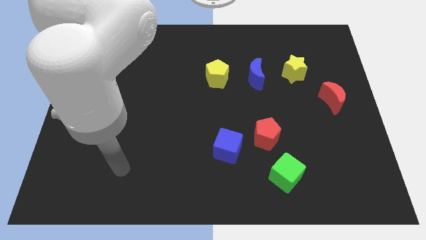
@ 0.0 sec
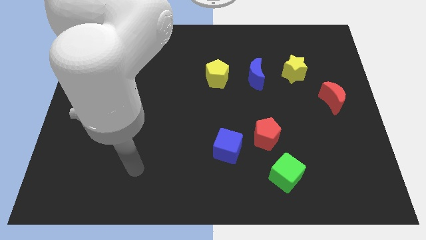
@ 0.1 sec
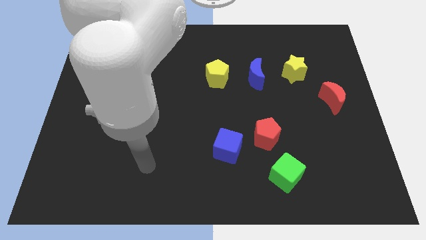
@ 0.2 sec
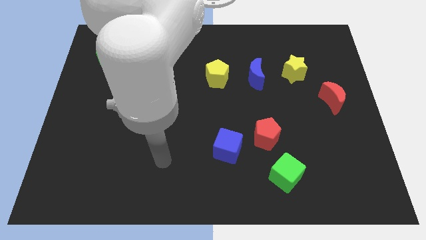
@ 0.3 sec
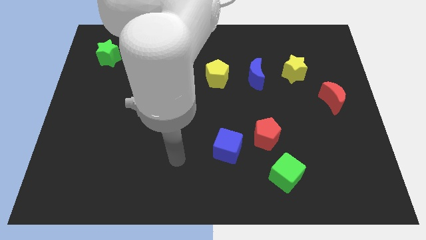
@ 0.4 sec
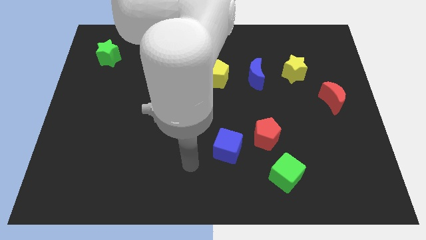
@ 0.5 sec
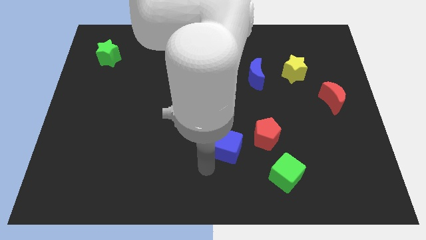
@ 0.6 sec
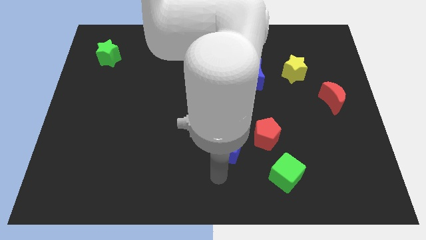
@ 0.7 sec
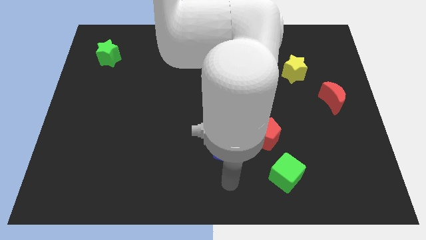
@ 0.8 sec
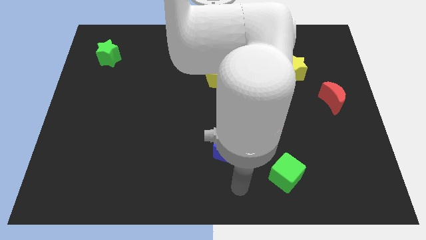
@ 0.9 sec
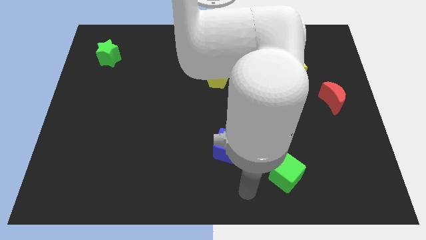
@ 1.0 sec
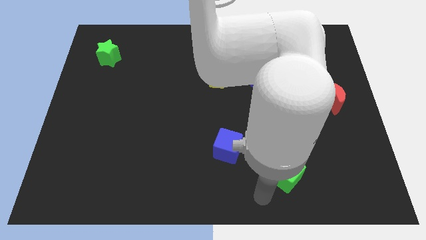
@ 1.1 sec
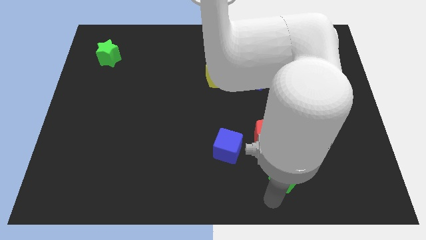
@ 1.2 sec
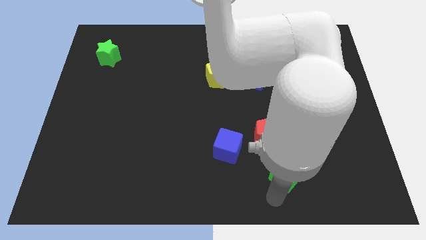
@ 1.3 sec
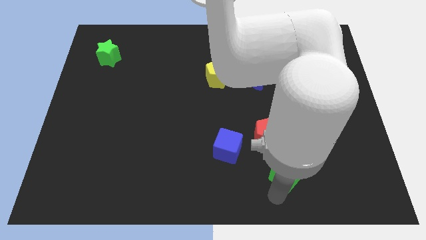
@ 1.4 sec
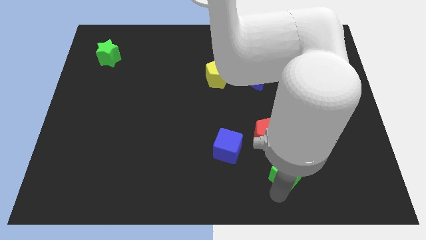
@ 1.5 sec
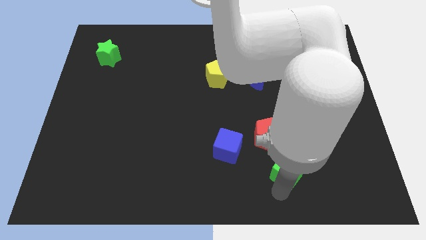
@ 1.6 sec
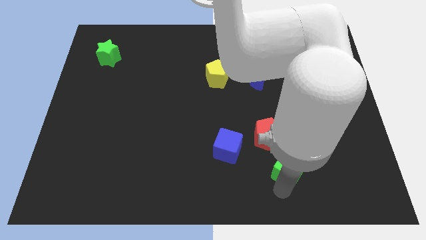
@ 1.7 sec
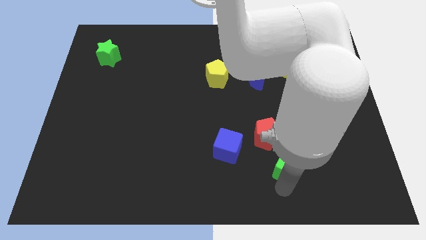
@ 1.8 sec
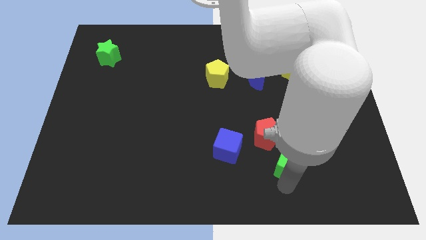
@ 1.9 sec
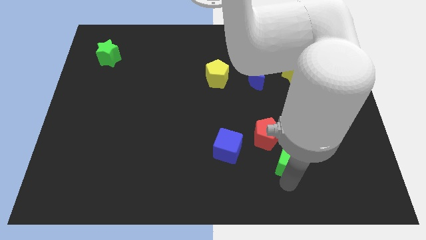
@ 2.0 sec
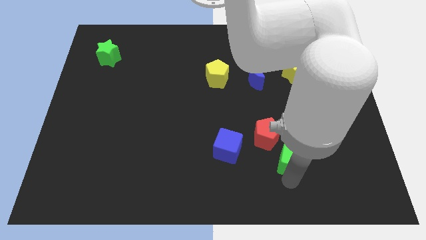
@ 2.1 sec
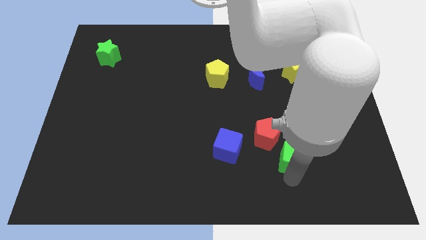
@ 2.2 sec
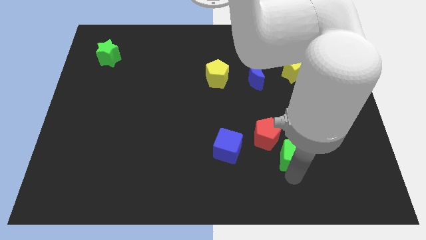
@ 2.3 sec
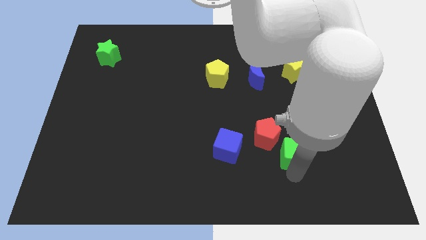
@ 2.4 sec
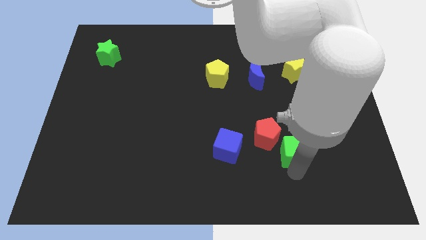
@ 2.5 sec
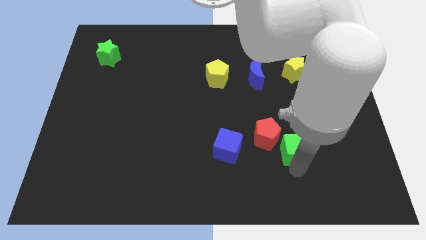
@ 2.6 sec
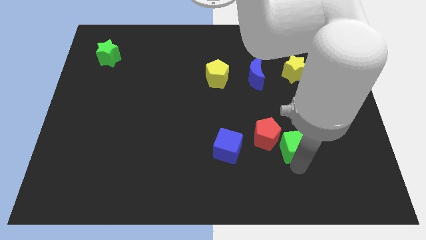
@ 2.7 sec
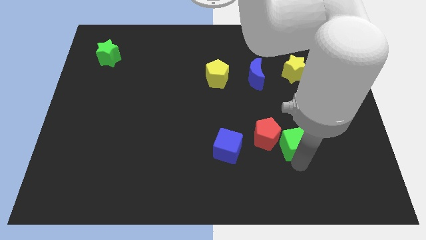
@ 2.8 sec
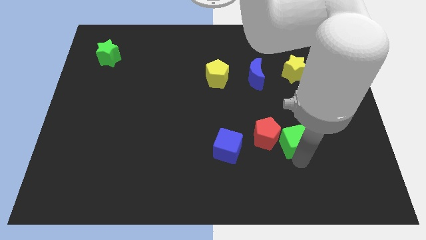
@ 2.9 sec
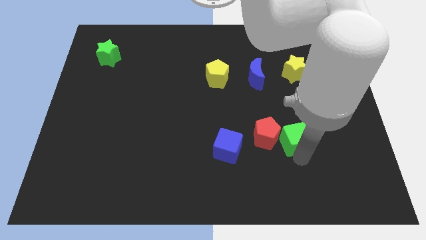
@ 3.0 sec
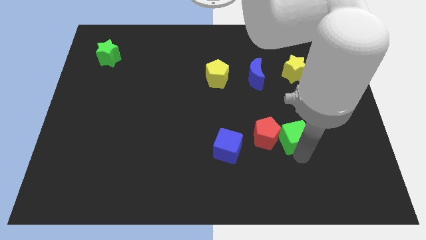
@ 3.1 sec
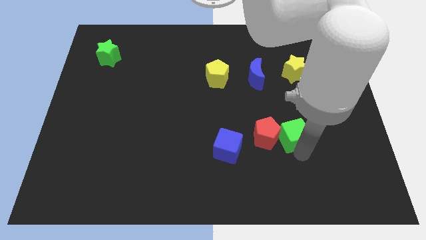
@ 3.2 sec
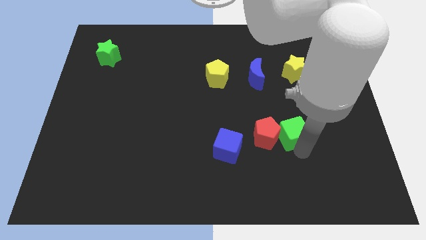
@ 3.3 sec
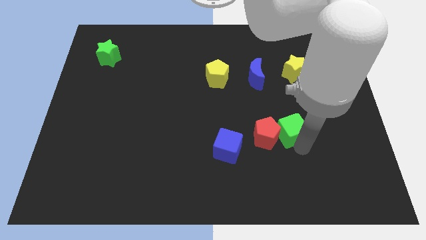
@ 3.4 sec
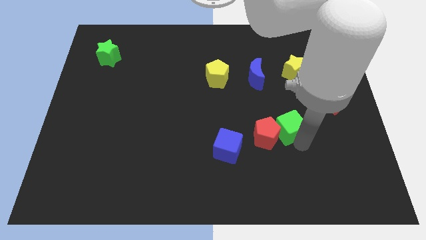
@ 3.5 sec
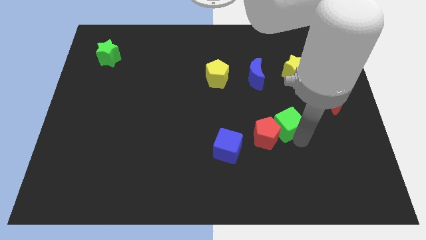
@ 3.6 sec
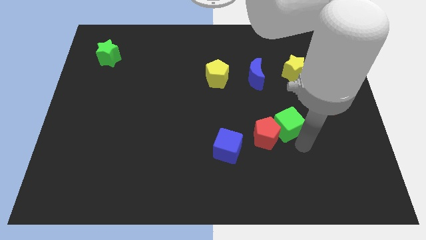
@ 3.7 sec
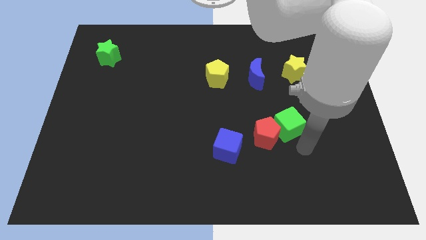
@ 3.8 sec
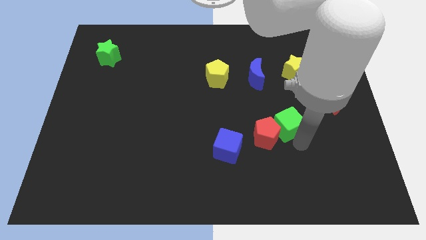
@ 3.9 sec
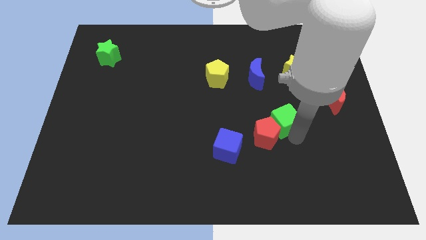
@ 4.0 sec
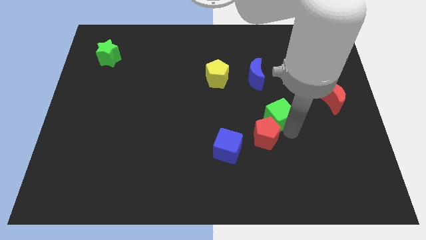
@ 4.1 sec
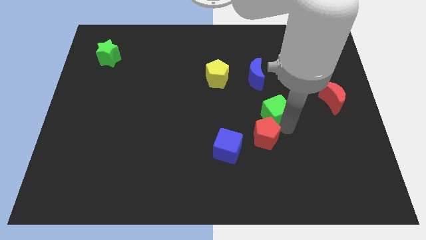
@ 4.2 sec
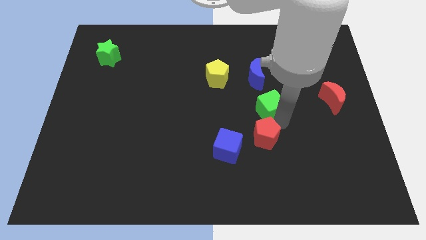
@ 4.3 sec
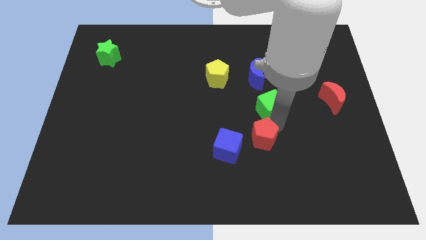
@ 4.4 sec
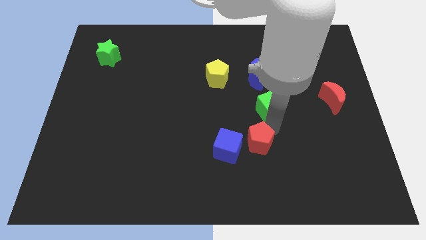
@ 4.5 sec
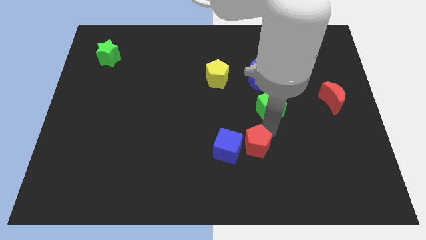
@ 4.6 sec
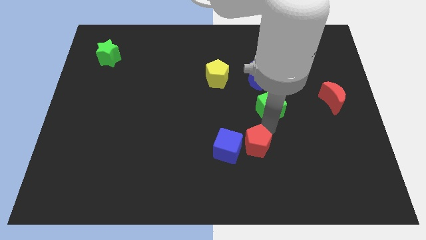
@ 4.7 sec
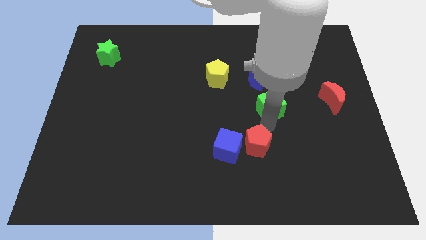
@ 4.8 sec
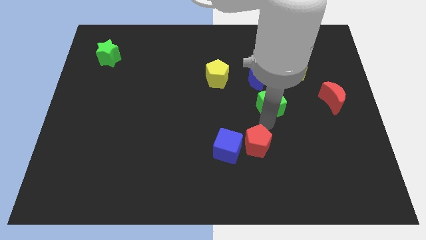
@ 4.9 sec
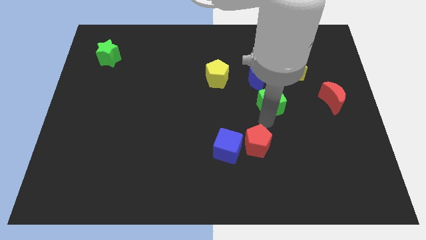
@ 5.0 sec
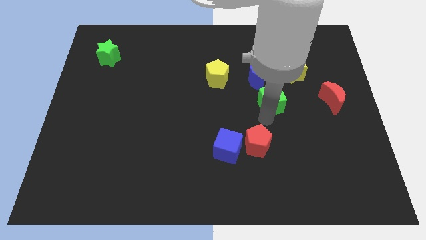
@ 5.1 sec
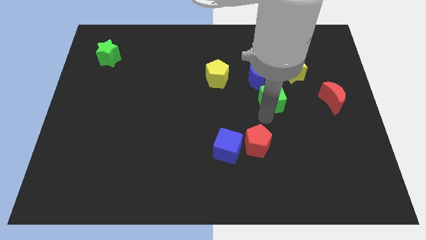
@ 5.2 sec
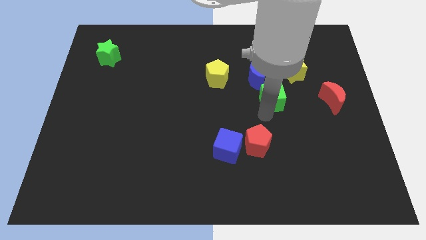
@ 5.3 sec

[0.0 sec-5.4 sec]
move the green cube upwards

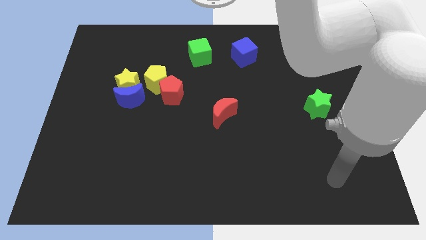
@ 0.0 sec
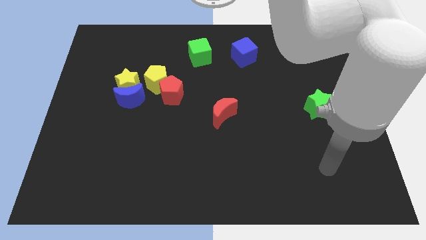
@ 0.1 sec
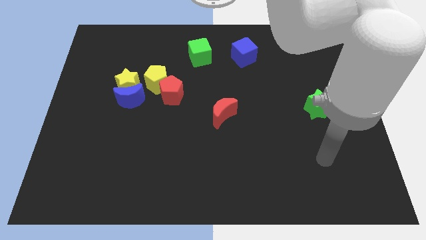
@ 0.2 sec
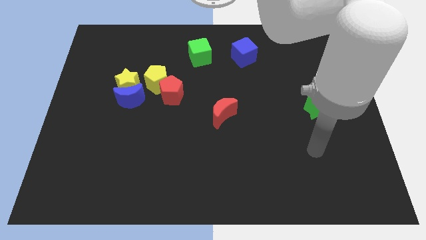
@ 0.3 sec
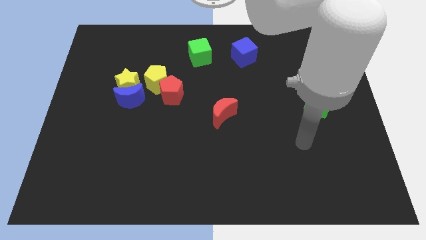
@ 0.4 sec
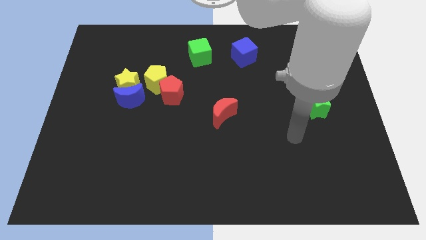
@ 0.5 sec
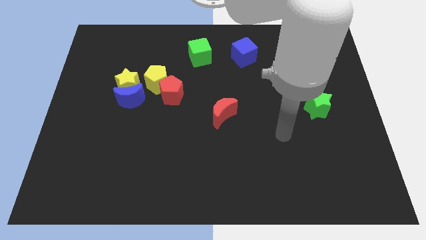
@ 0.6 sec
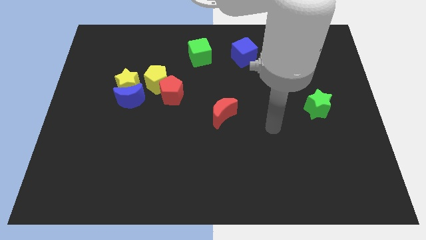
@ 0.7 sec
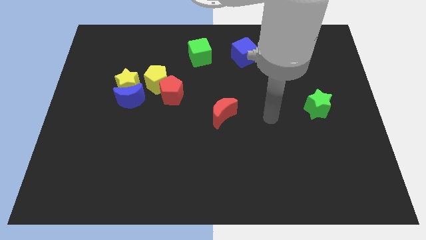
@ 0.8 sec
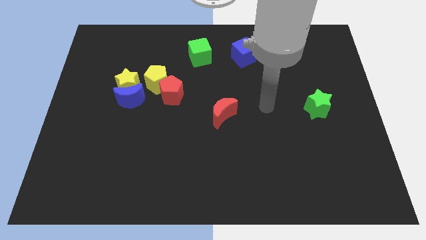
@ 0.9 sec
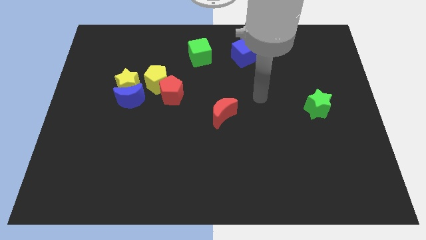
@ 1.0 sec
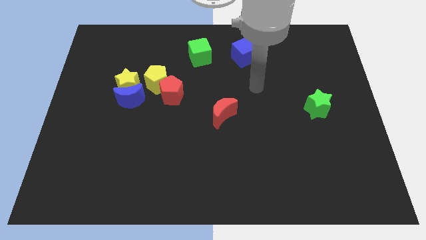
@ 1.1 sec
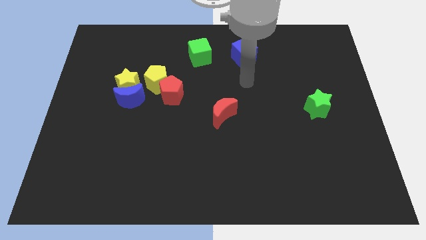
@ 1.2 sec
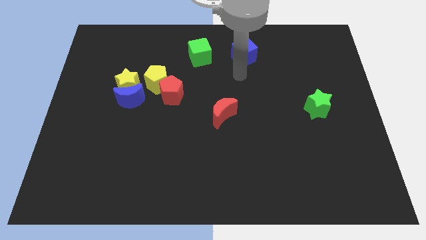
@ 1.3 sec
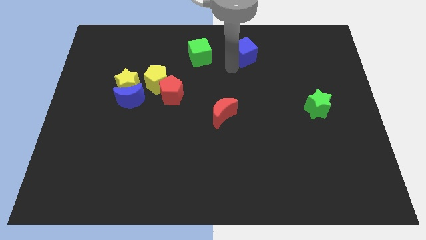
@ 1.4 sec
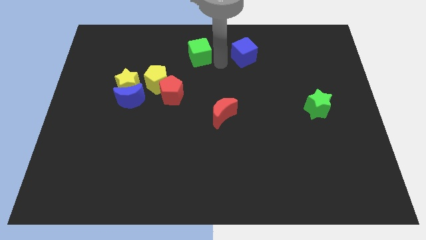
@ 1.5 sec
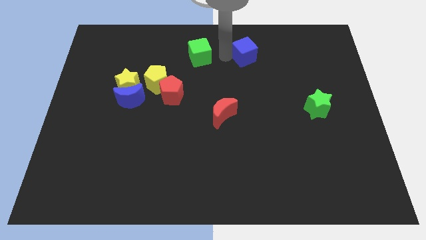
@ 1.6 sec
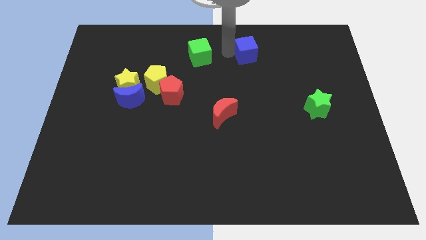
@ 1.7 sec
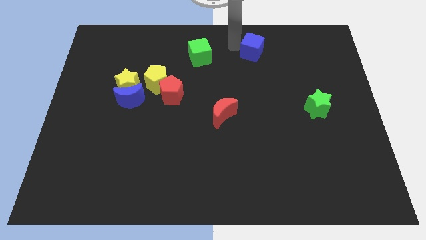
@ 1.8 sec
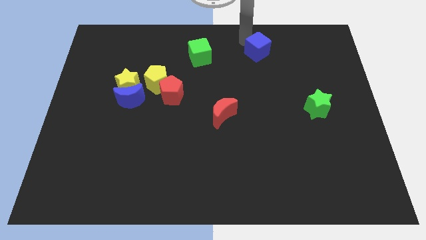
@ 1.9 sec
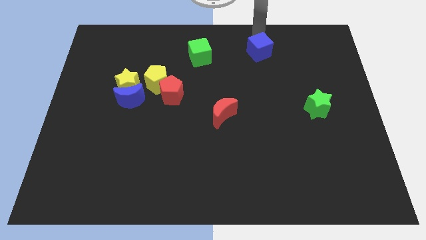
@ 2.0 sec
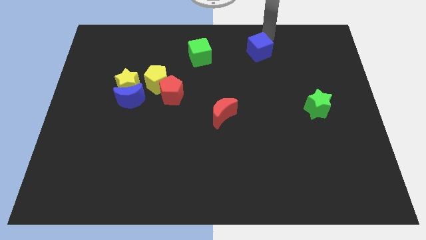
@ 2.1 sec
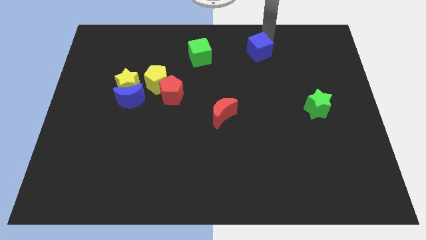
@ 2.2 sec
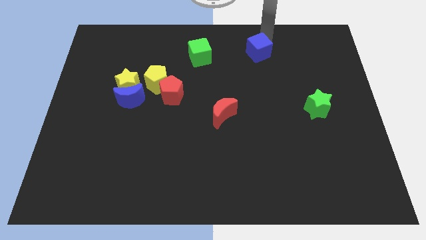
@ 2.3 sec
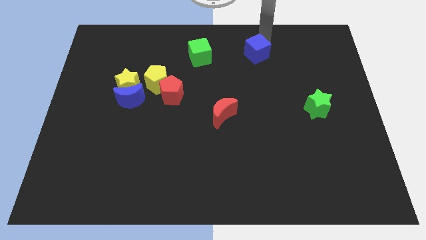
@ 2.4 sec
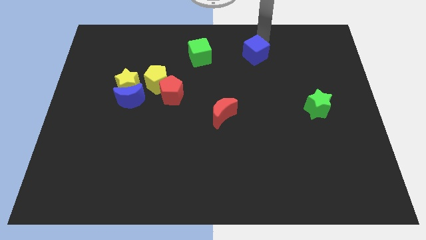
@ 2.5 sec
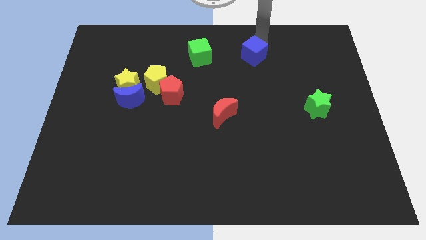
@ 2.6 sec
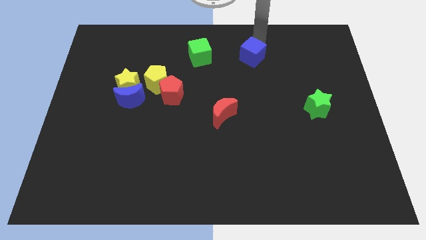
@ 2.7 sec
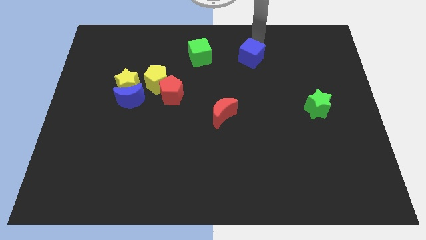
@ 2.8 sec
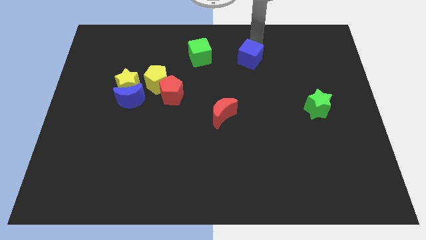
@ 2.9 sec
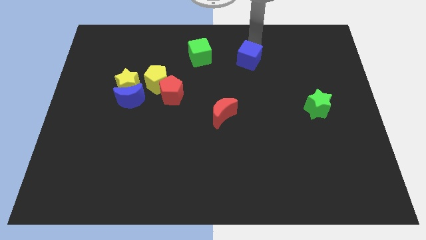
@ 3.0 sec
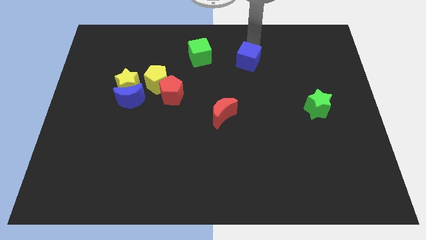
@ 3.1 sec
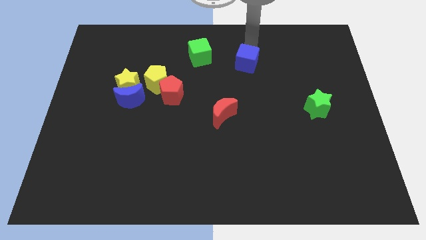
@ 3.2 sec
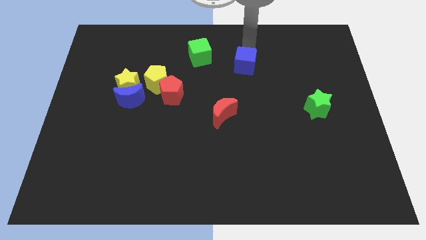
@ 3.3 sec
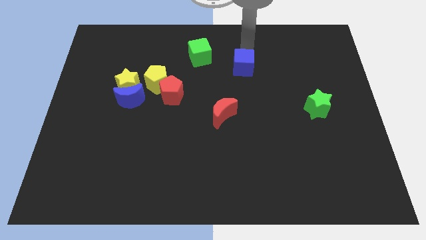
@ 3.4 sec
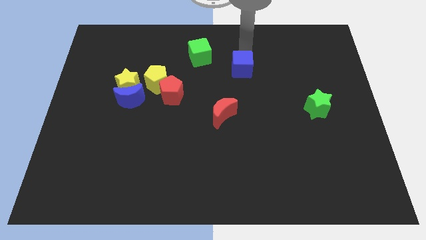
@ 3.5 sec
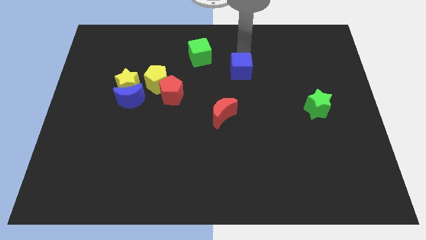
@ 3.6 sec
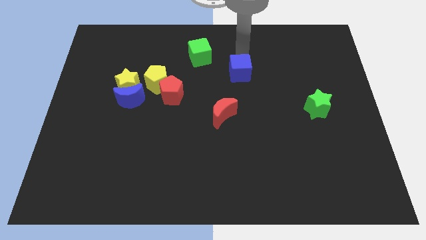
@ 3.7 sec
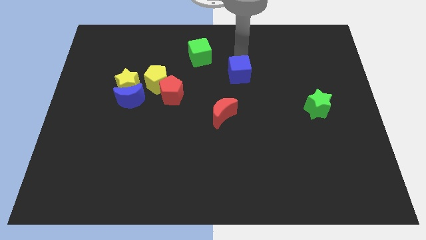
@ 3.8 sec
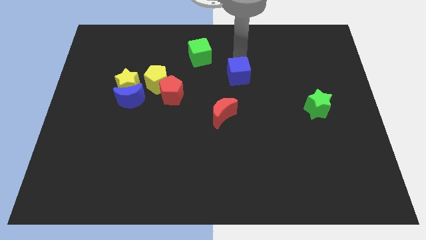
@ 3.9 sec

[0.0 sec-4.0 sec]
move the blue cube down a little
